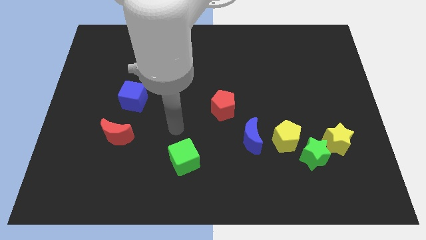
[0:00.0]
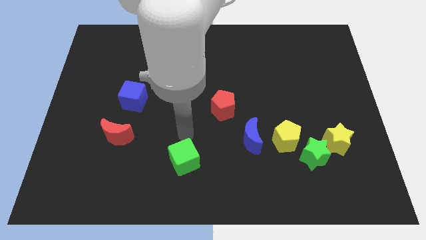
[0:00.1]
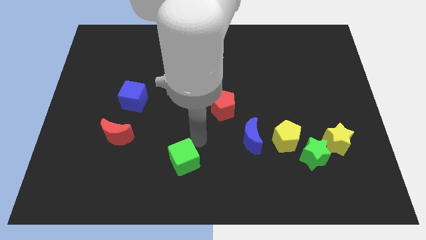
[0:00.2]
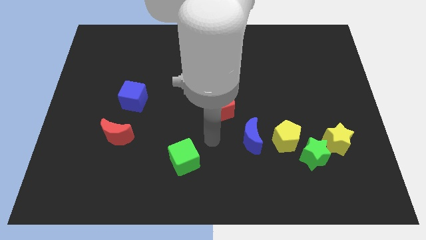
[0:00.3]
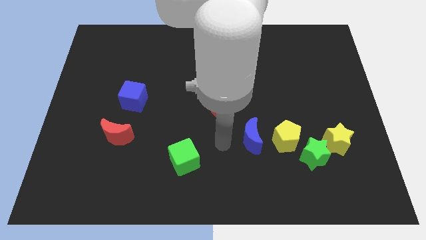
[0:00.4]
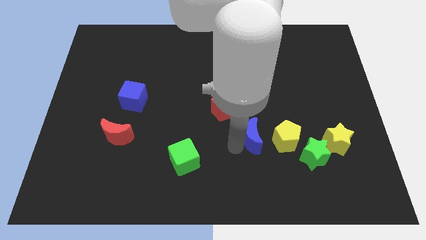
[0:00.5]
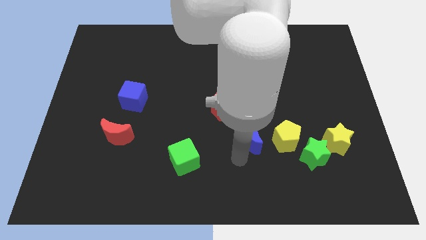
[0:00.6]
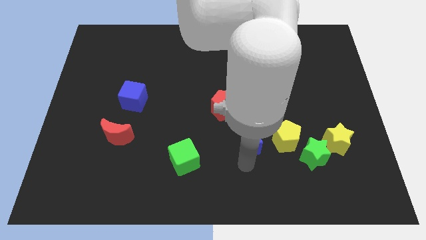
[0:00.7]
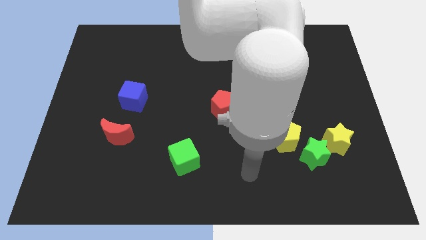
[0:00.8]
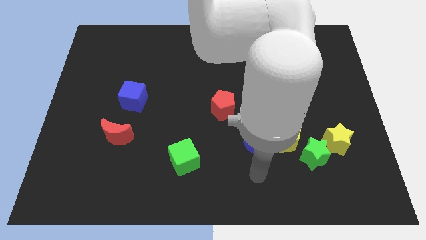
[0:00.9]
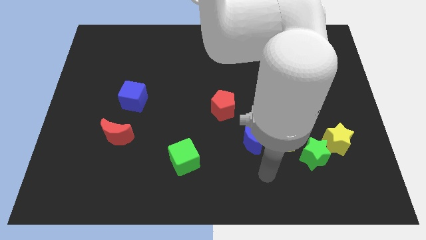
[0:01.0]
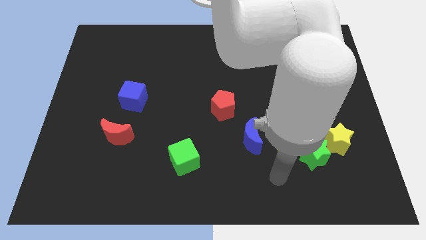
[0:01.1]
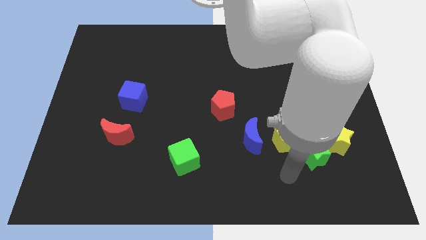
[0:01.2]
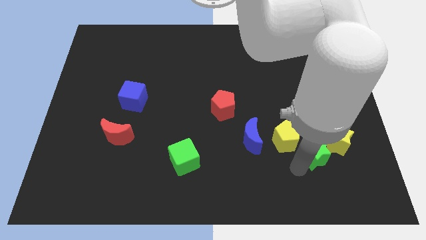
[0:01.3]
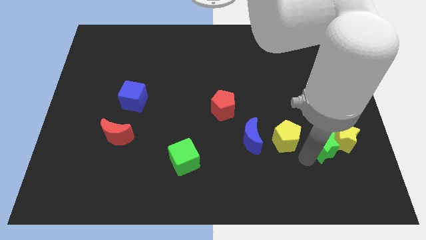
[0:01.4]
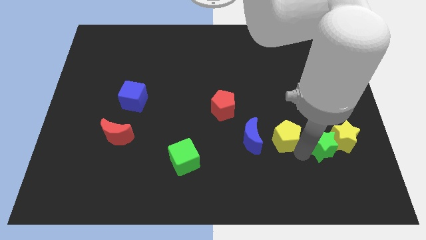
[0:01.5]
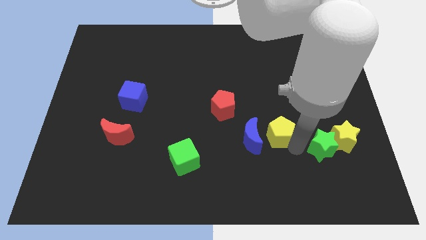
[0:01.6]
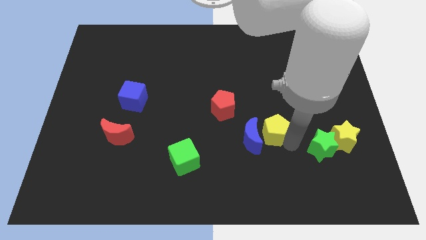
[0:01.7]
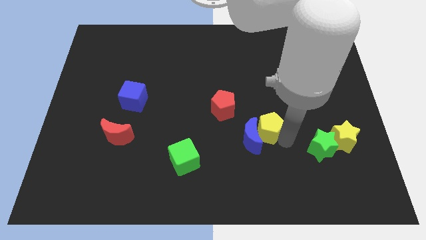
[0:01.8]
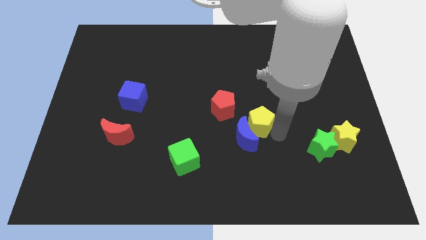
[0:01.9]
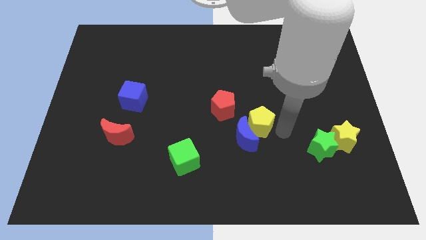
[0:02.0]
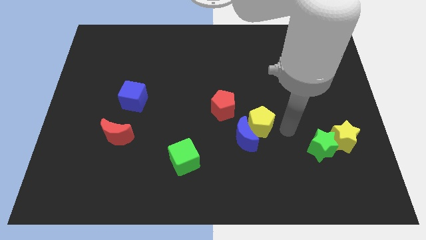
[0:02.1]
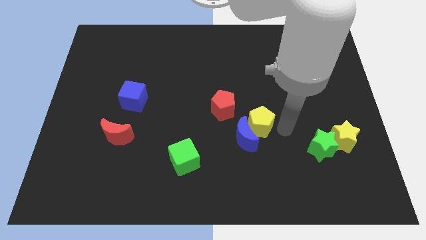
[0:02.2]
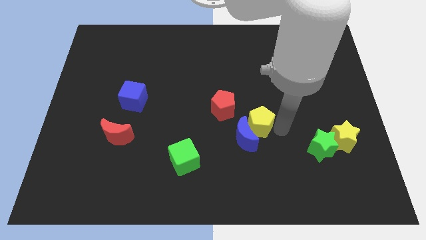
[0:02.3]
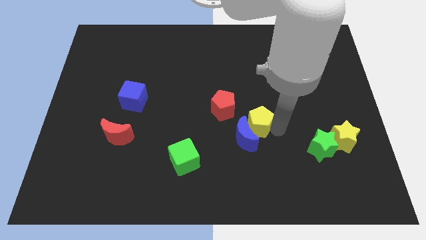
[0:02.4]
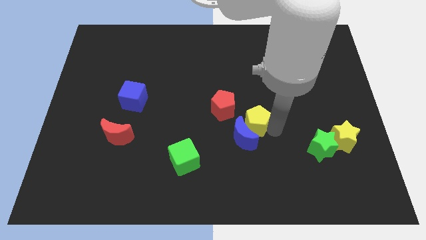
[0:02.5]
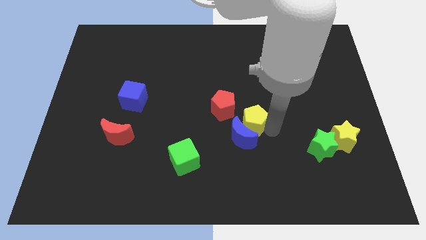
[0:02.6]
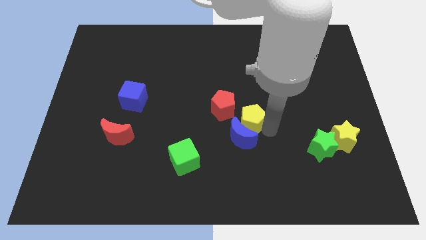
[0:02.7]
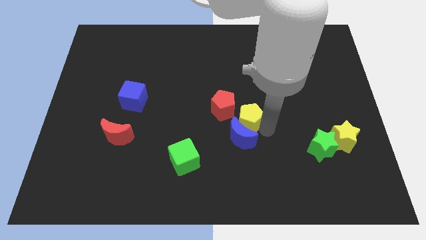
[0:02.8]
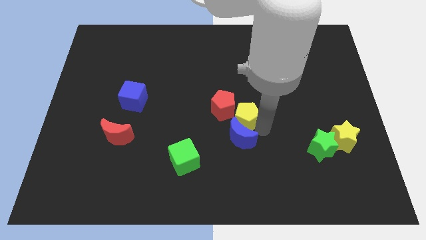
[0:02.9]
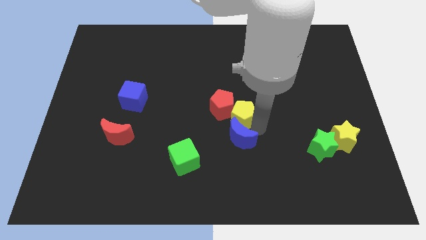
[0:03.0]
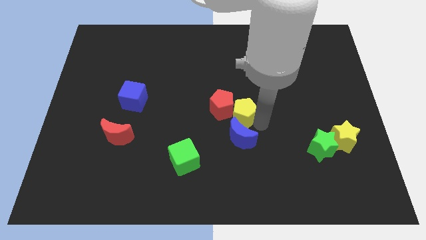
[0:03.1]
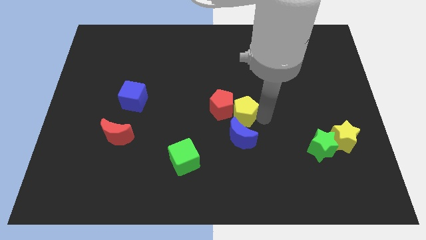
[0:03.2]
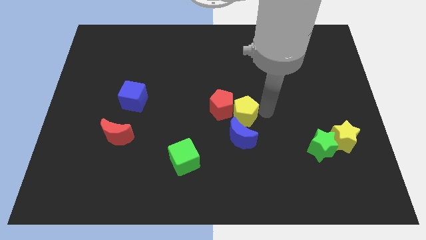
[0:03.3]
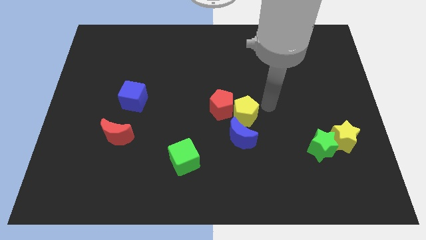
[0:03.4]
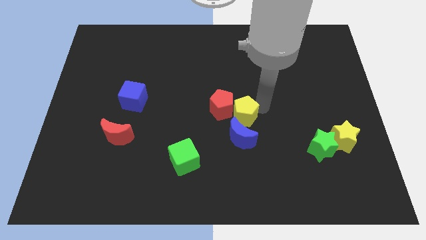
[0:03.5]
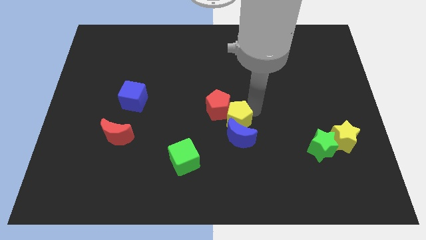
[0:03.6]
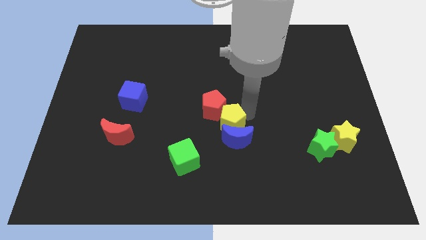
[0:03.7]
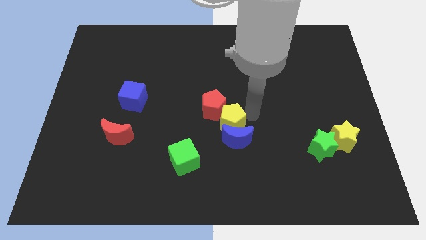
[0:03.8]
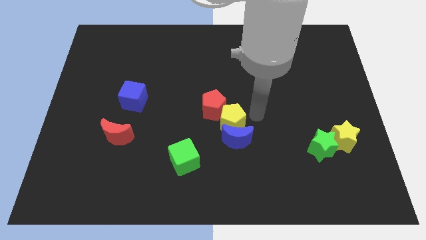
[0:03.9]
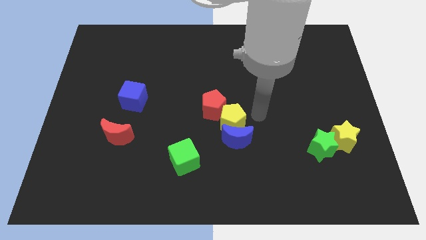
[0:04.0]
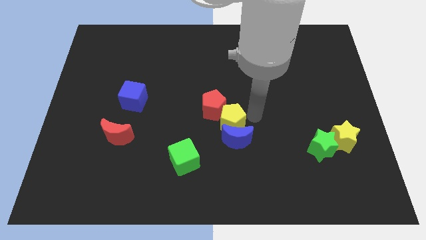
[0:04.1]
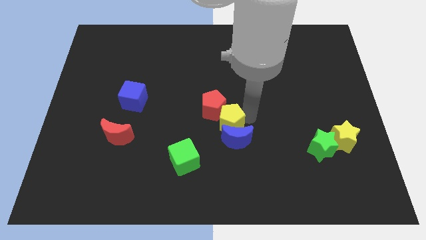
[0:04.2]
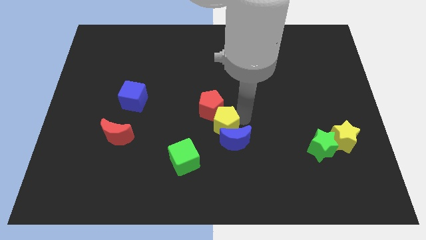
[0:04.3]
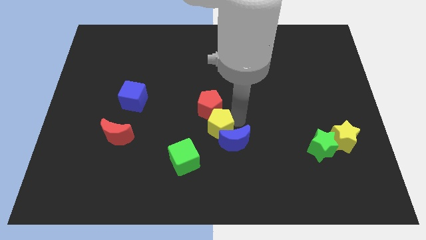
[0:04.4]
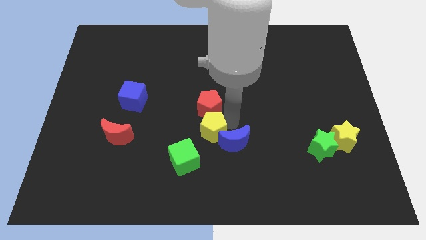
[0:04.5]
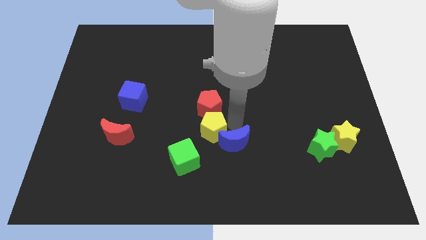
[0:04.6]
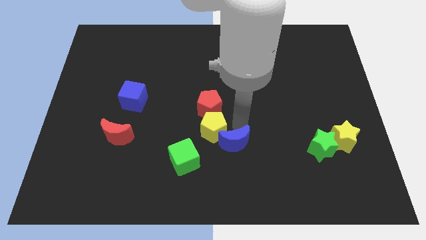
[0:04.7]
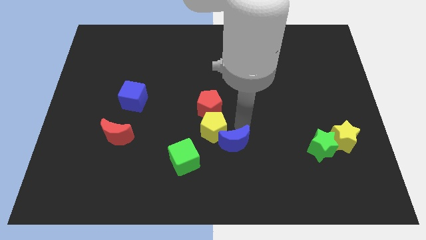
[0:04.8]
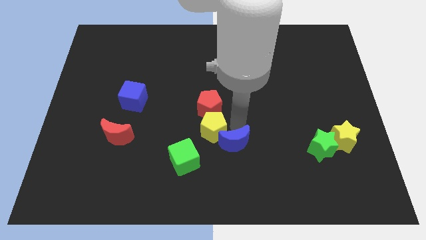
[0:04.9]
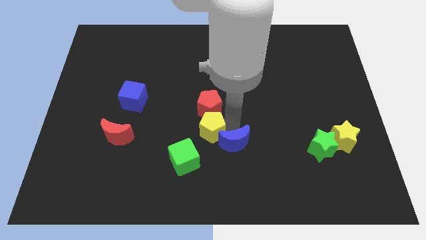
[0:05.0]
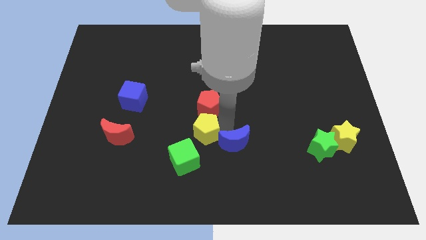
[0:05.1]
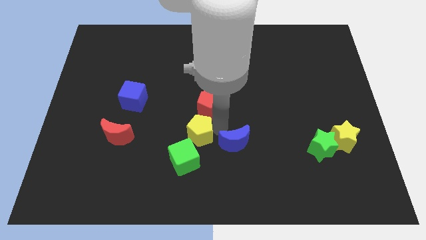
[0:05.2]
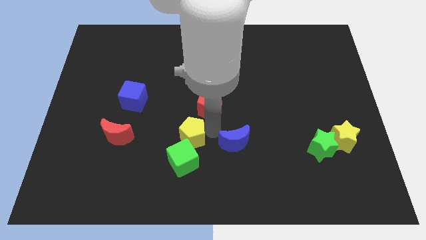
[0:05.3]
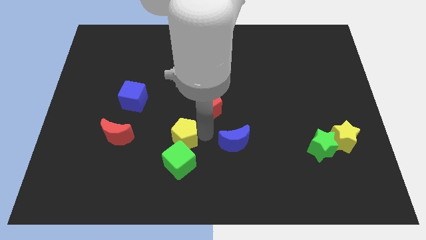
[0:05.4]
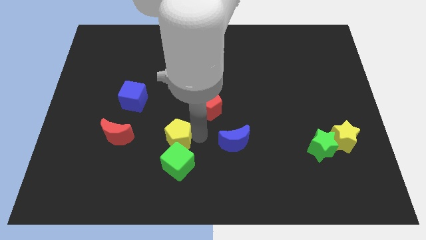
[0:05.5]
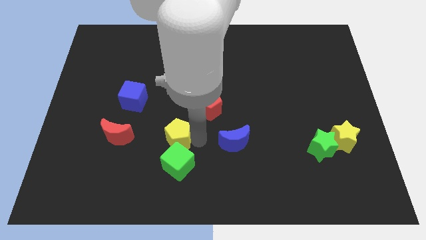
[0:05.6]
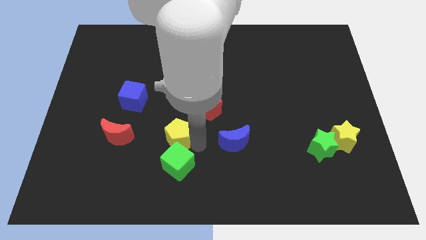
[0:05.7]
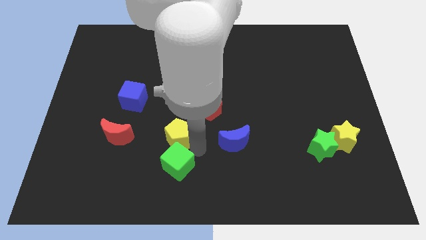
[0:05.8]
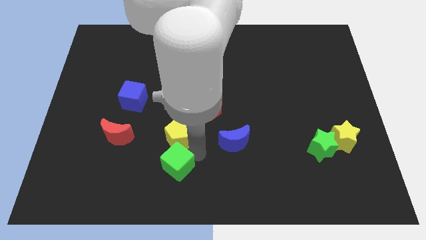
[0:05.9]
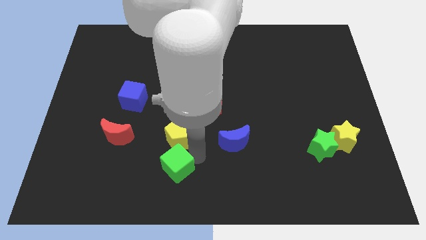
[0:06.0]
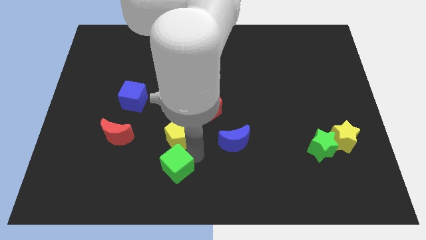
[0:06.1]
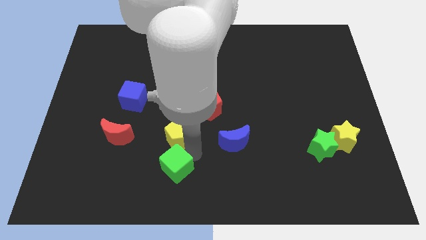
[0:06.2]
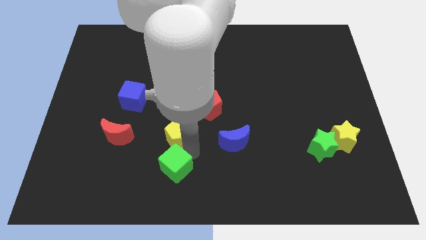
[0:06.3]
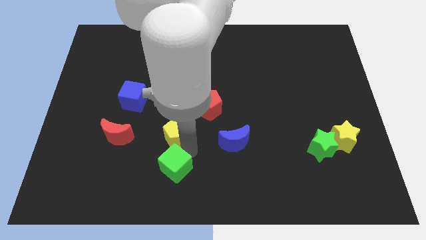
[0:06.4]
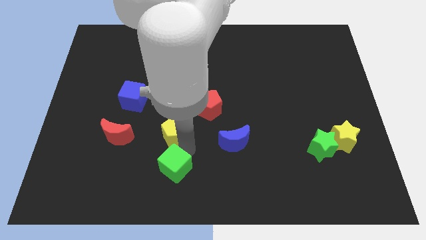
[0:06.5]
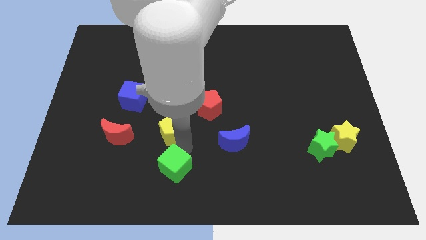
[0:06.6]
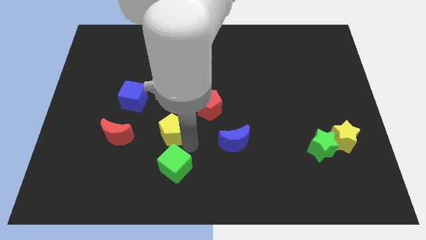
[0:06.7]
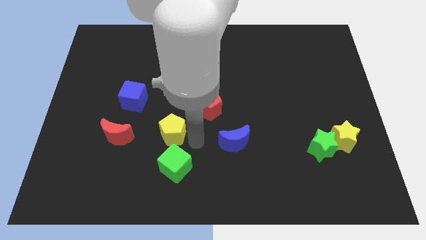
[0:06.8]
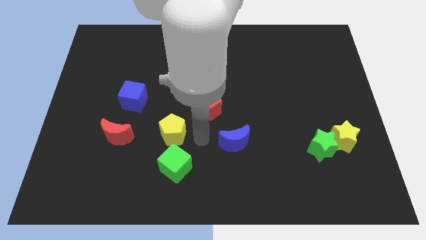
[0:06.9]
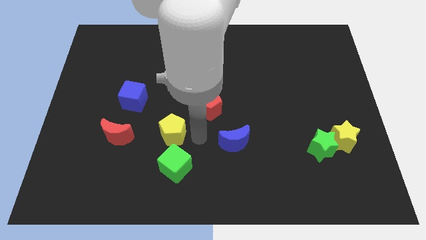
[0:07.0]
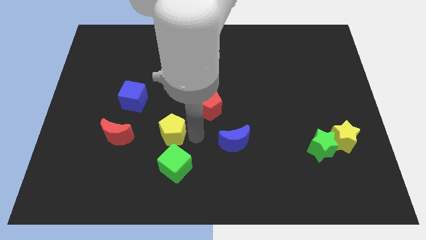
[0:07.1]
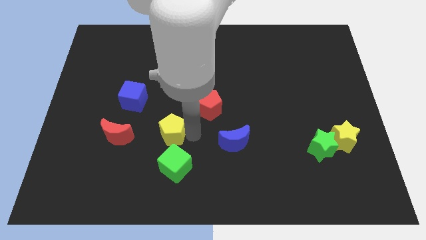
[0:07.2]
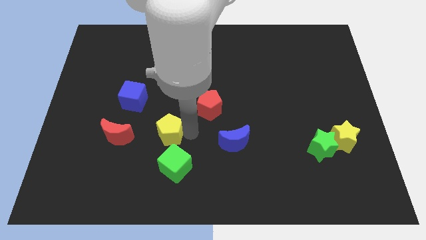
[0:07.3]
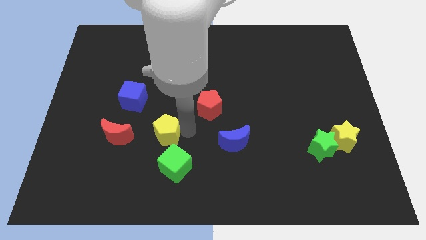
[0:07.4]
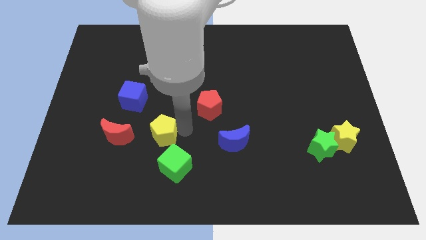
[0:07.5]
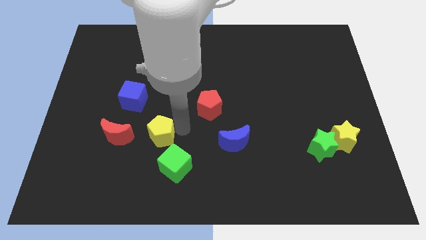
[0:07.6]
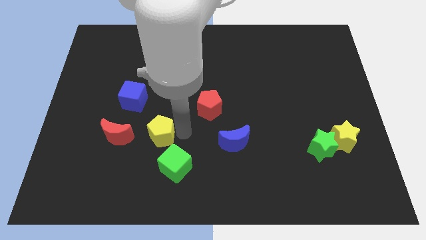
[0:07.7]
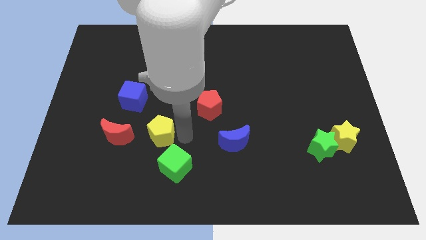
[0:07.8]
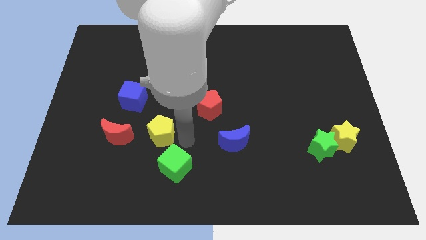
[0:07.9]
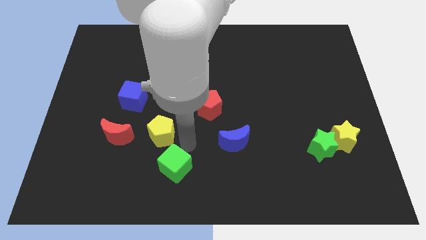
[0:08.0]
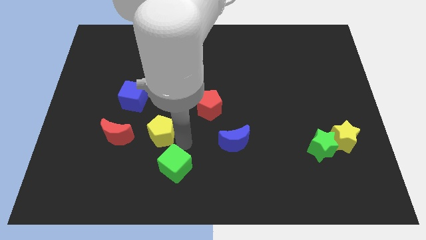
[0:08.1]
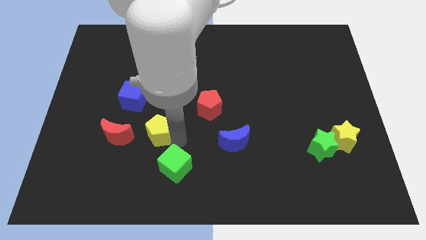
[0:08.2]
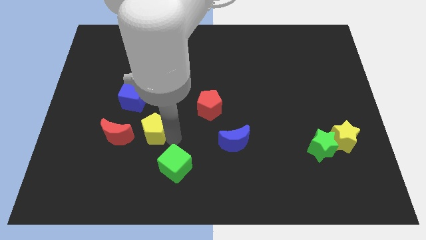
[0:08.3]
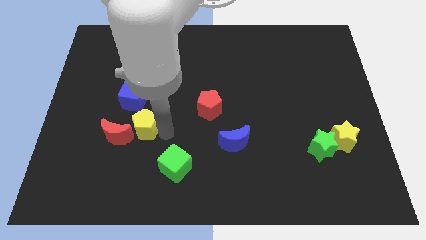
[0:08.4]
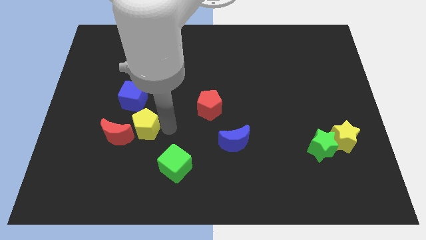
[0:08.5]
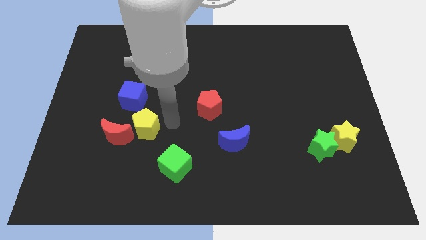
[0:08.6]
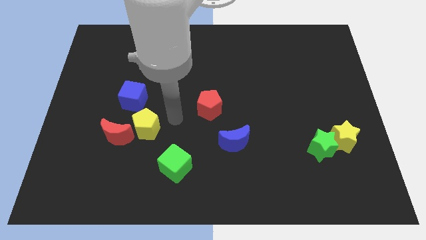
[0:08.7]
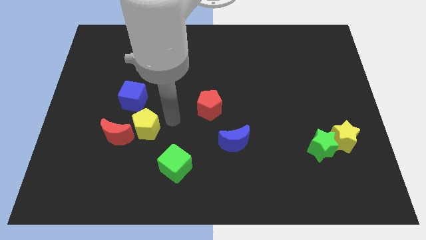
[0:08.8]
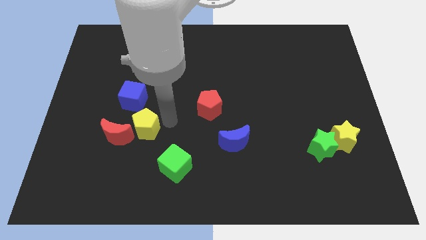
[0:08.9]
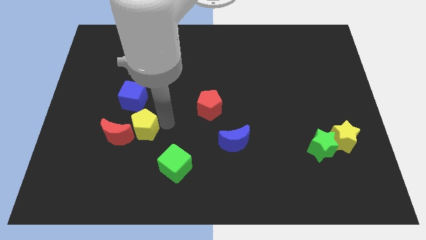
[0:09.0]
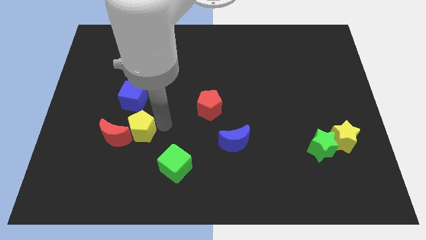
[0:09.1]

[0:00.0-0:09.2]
slide the yellow pentagon next to the red moon
